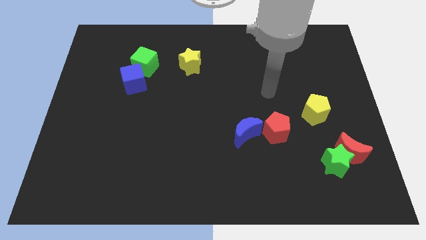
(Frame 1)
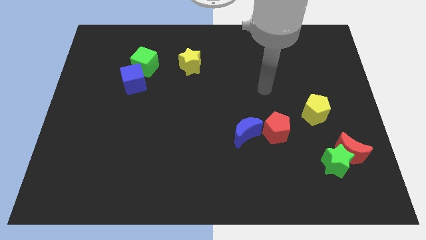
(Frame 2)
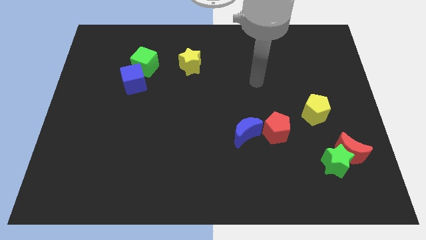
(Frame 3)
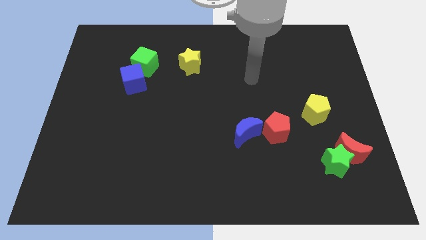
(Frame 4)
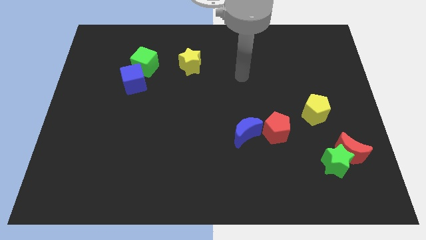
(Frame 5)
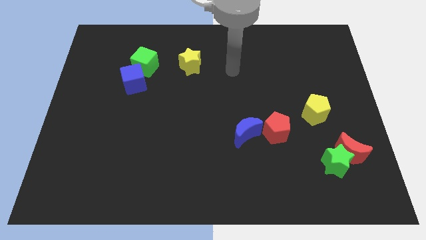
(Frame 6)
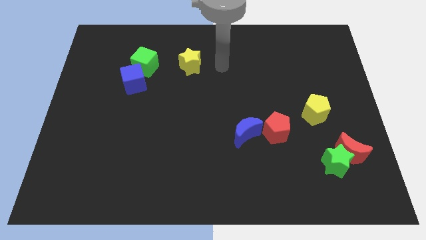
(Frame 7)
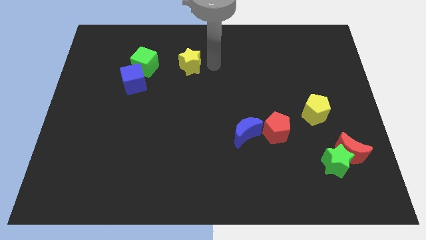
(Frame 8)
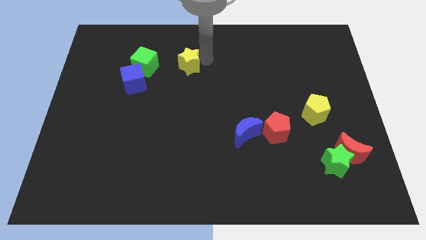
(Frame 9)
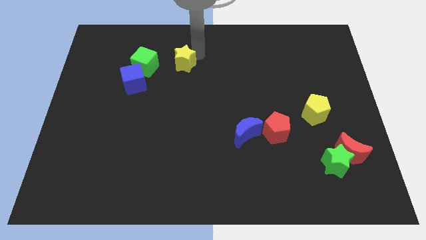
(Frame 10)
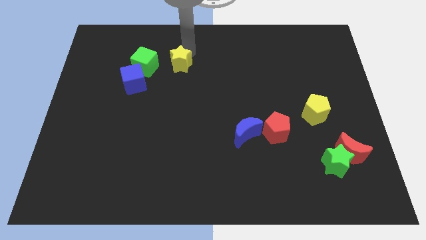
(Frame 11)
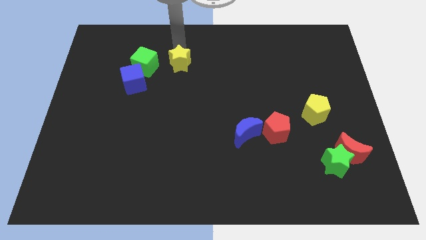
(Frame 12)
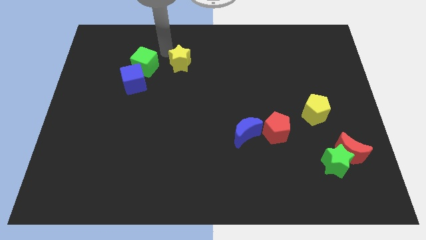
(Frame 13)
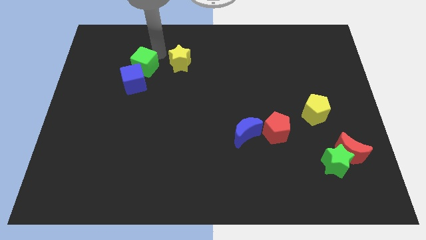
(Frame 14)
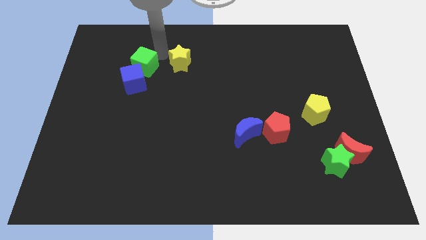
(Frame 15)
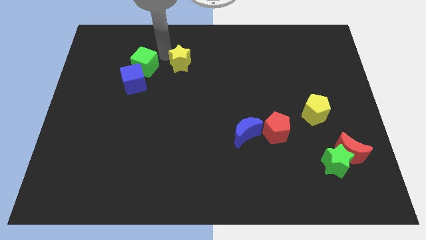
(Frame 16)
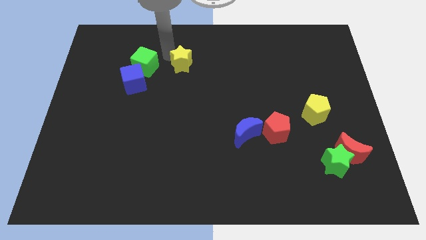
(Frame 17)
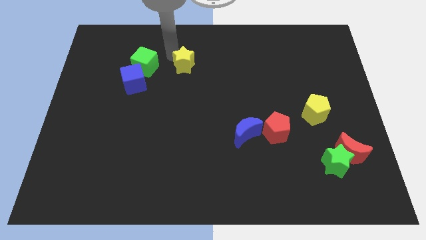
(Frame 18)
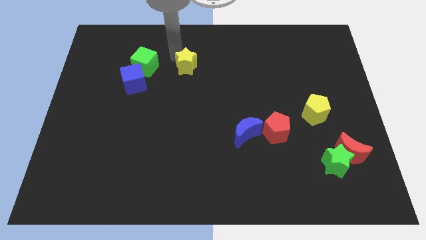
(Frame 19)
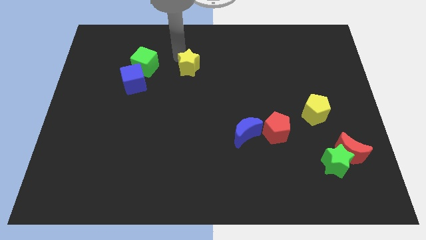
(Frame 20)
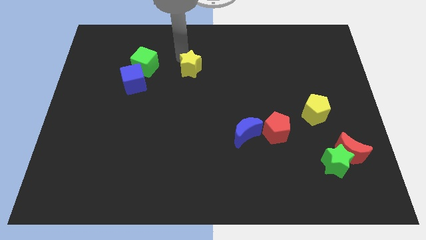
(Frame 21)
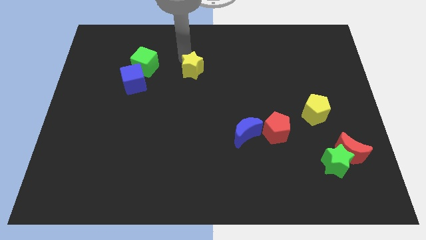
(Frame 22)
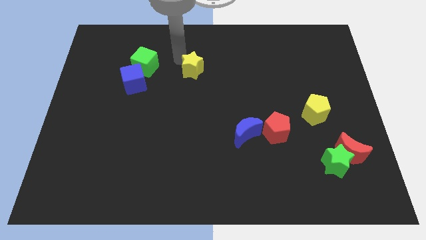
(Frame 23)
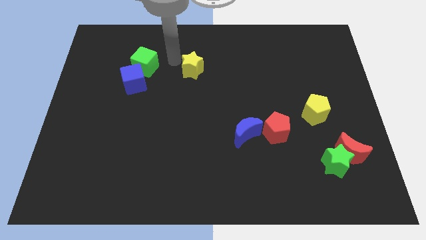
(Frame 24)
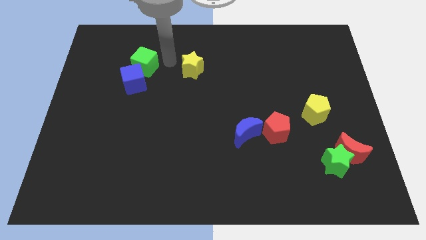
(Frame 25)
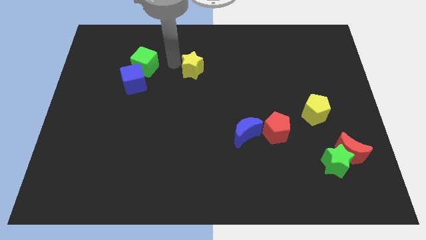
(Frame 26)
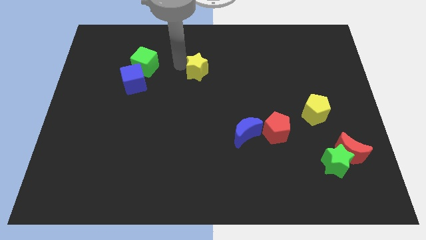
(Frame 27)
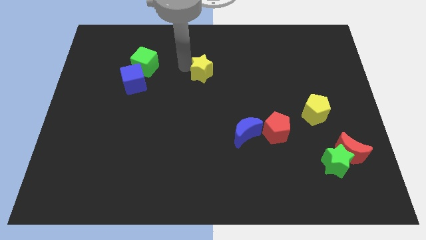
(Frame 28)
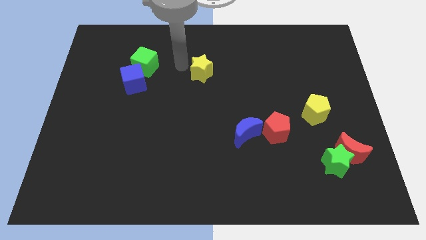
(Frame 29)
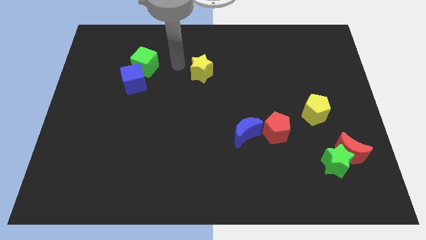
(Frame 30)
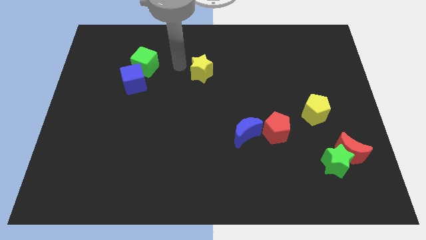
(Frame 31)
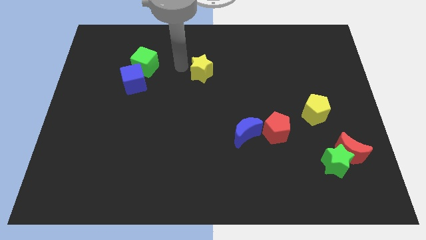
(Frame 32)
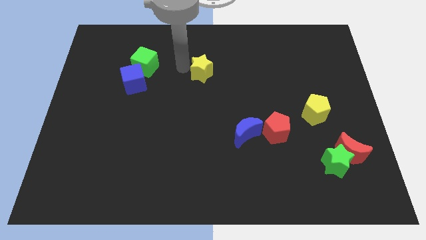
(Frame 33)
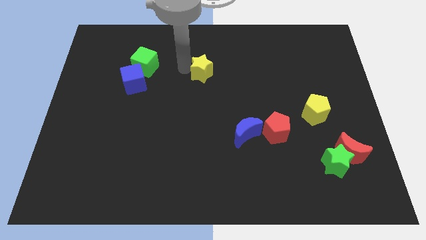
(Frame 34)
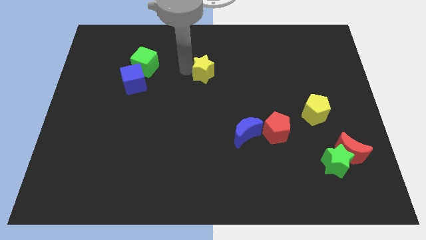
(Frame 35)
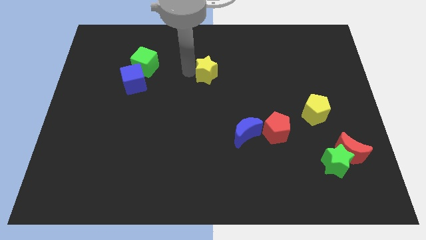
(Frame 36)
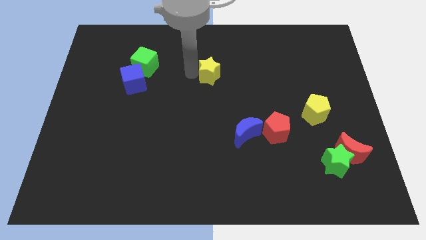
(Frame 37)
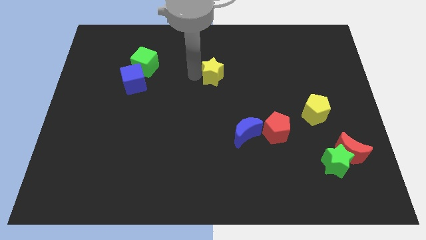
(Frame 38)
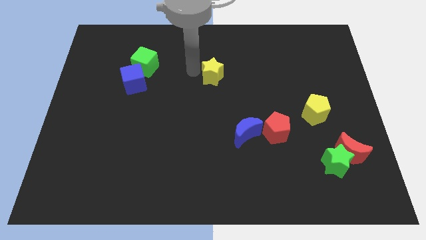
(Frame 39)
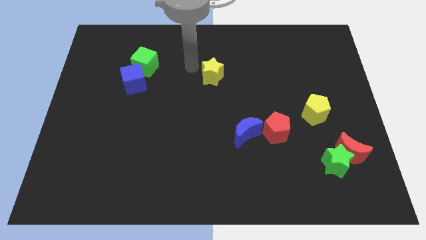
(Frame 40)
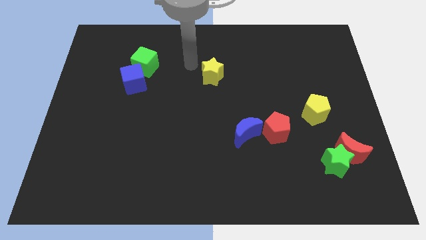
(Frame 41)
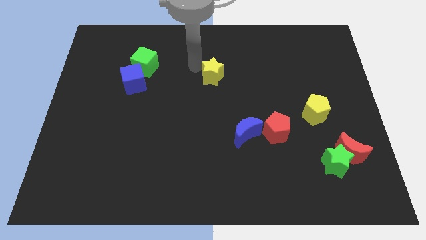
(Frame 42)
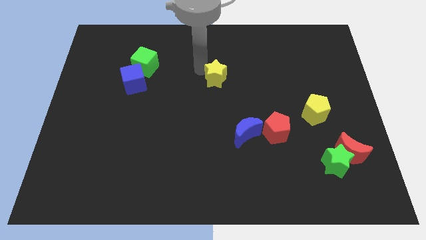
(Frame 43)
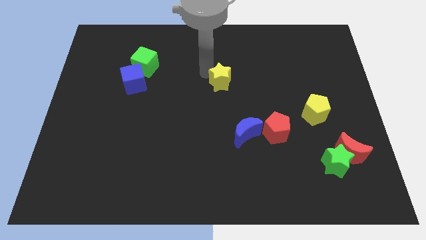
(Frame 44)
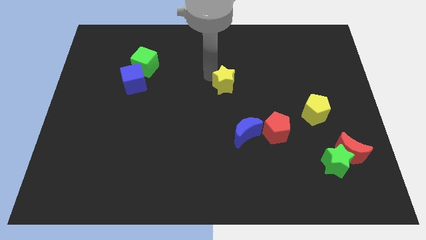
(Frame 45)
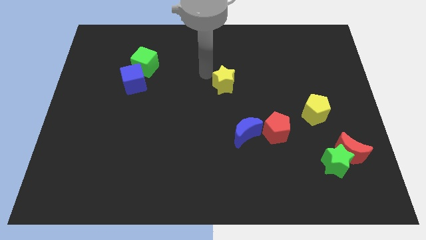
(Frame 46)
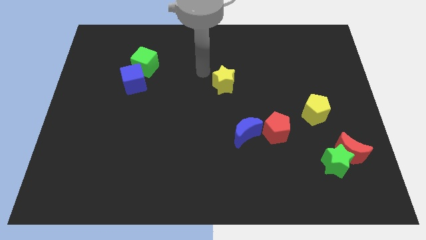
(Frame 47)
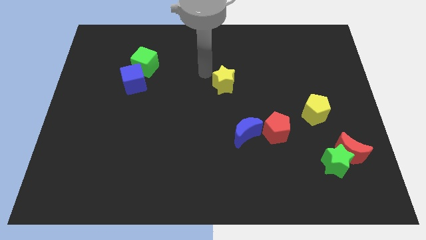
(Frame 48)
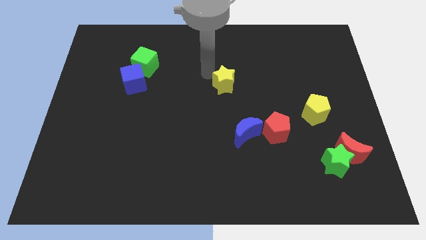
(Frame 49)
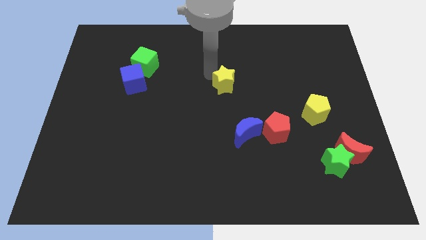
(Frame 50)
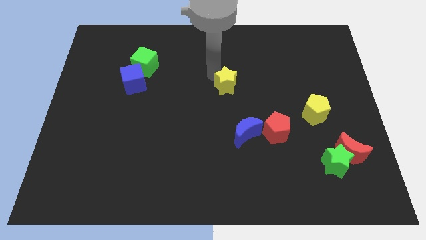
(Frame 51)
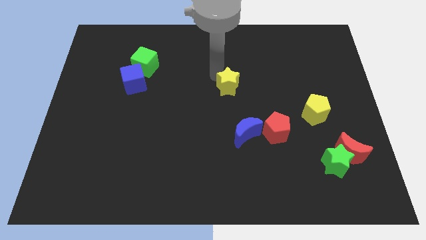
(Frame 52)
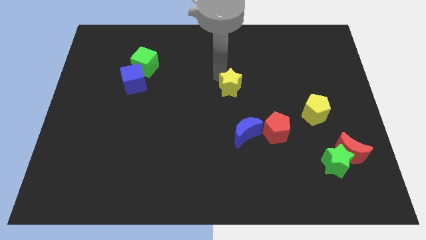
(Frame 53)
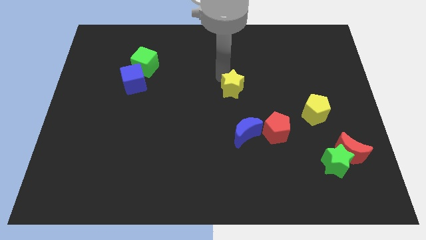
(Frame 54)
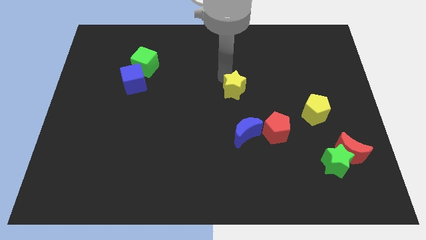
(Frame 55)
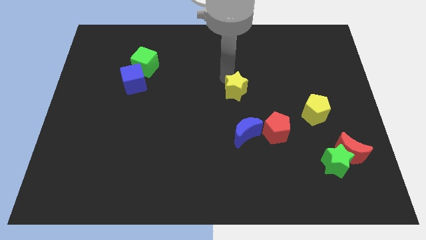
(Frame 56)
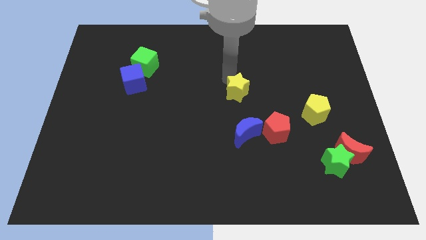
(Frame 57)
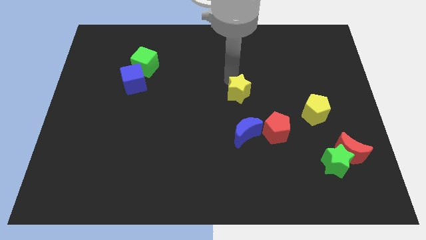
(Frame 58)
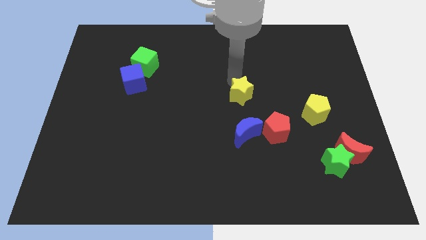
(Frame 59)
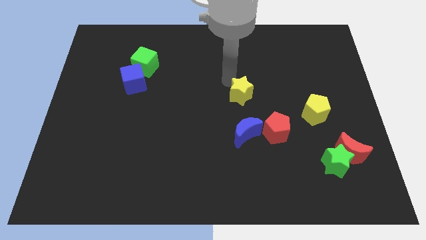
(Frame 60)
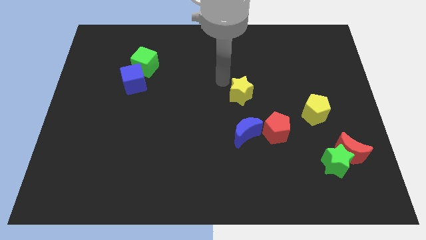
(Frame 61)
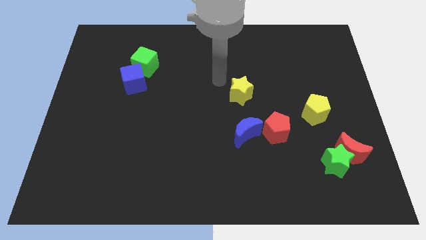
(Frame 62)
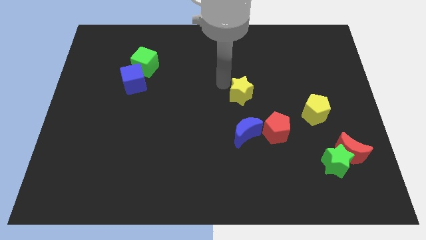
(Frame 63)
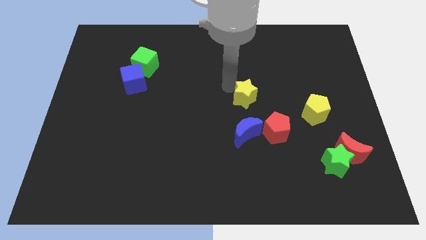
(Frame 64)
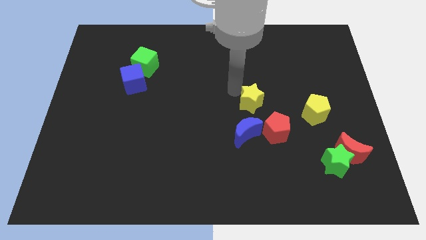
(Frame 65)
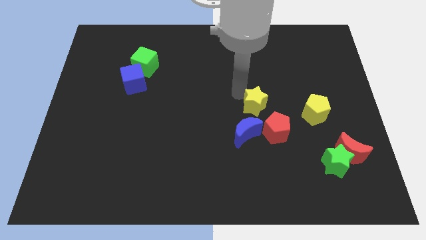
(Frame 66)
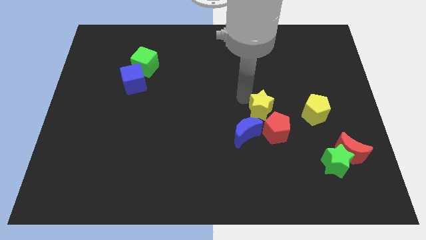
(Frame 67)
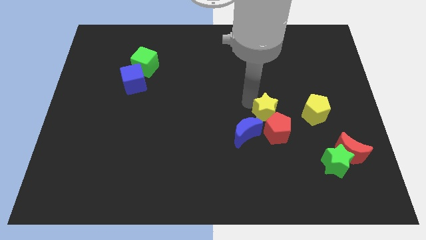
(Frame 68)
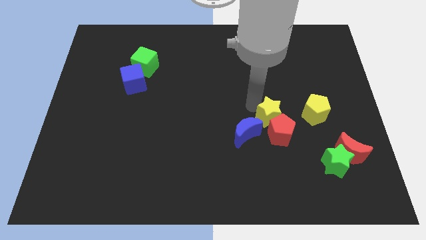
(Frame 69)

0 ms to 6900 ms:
move the yellow star just right of the blue moon
